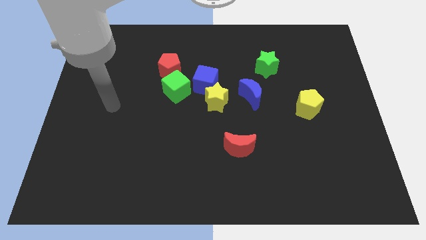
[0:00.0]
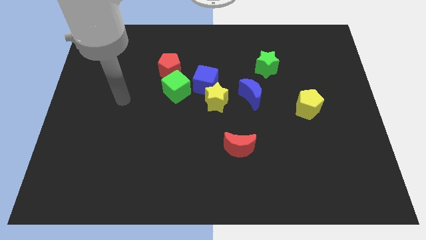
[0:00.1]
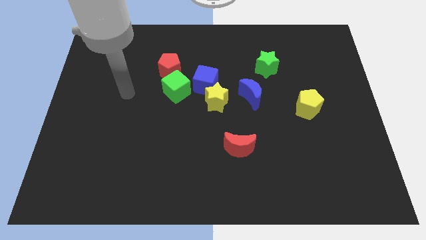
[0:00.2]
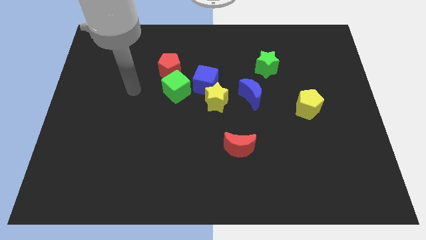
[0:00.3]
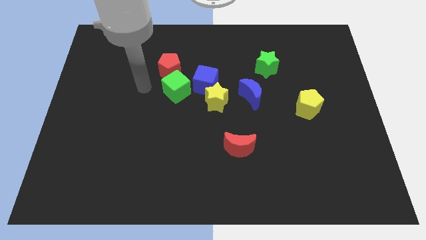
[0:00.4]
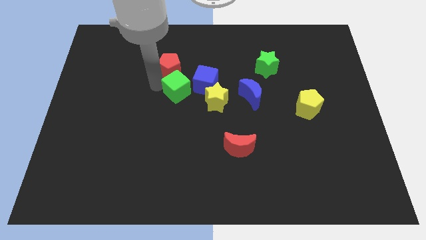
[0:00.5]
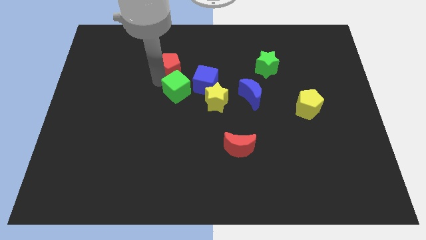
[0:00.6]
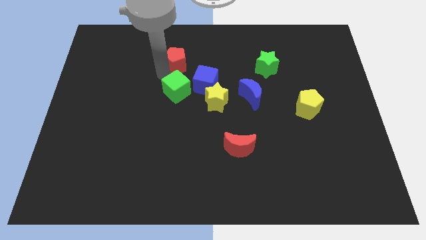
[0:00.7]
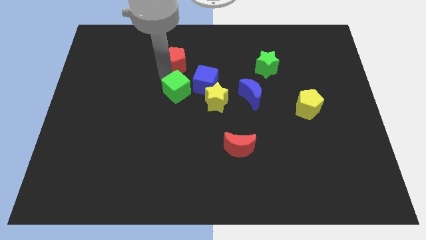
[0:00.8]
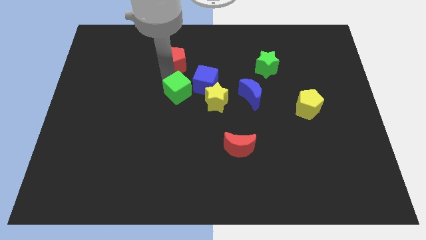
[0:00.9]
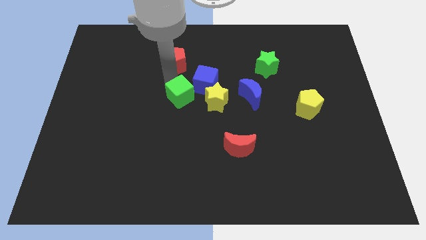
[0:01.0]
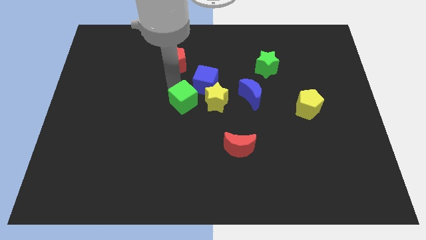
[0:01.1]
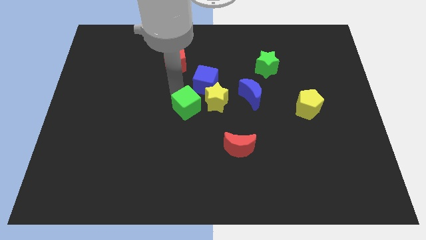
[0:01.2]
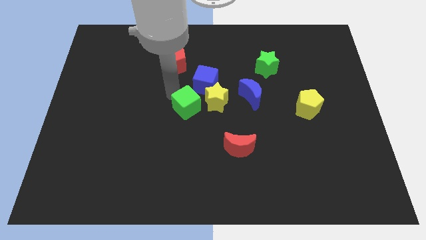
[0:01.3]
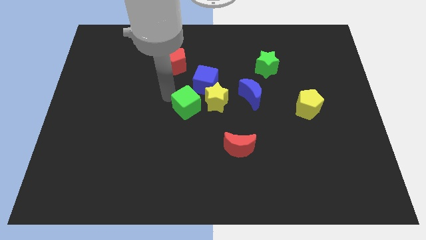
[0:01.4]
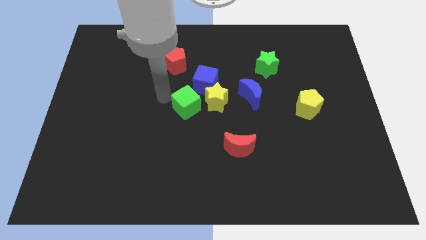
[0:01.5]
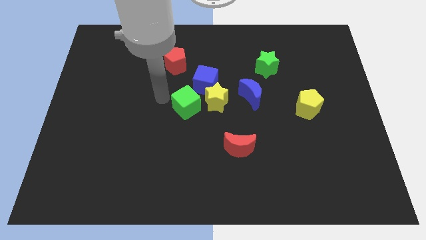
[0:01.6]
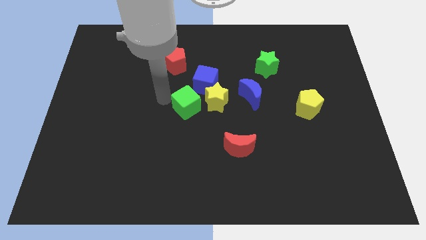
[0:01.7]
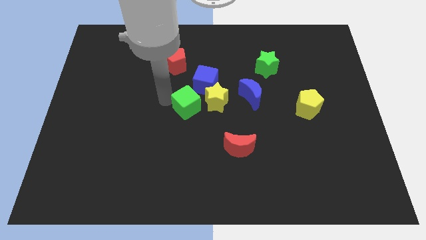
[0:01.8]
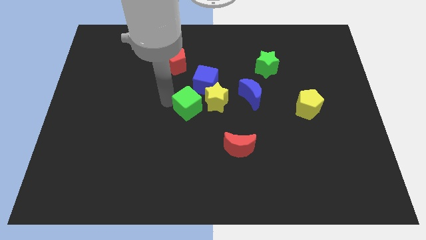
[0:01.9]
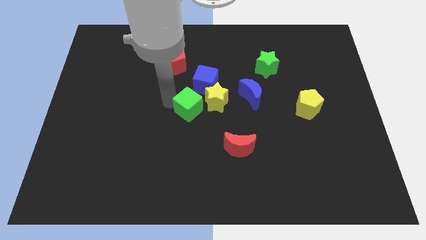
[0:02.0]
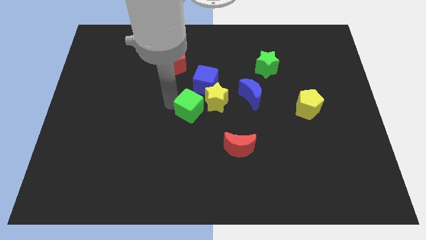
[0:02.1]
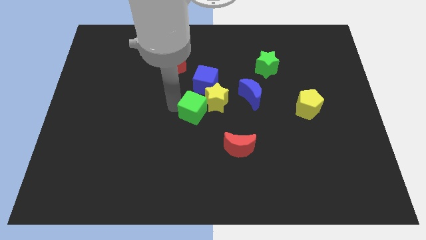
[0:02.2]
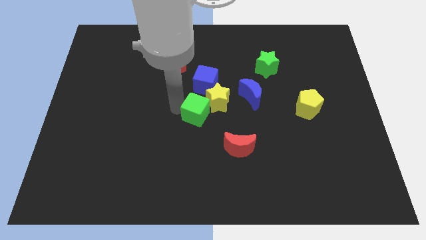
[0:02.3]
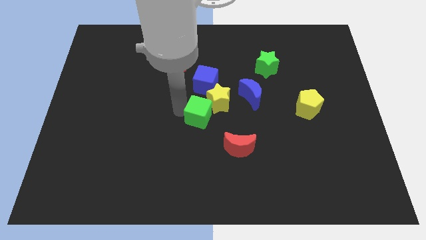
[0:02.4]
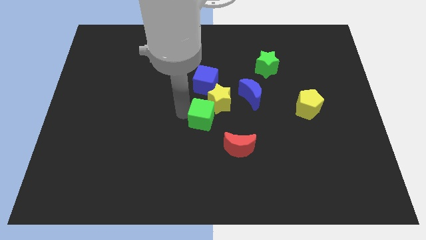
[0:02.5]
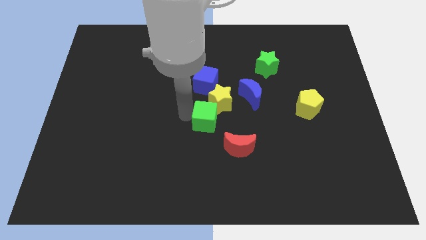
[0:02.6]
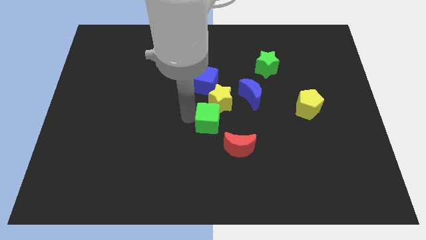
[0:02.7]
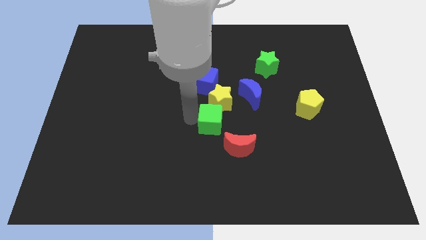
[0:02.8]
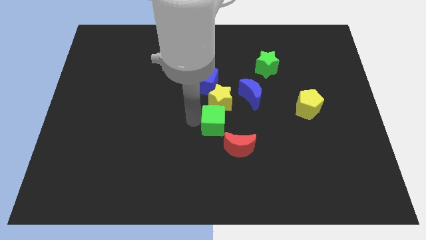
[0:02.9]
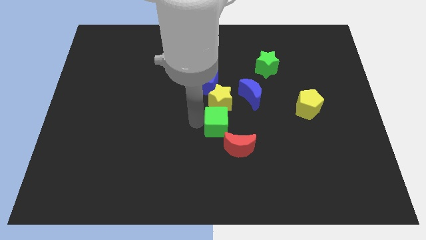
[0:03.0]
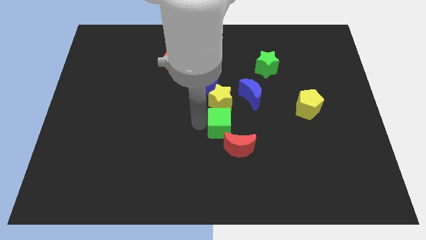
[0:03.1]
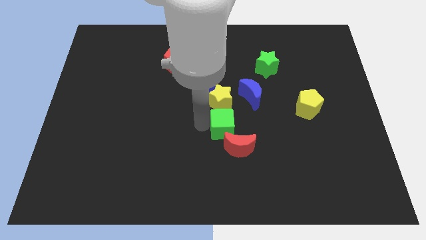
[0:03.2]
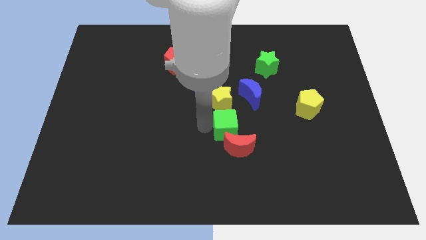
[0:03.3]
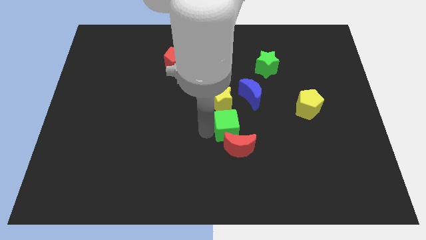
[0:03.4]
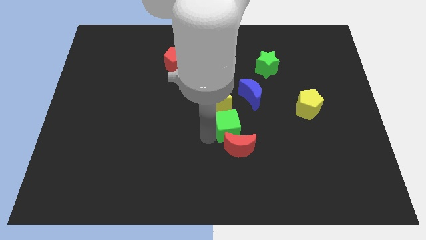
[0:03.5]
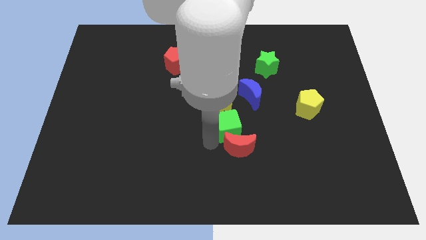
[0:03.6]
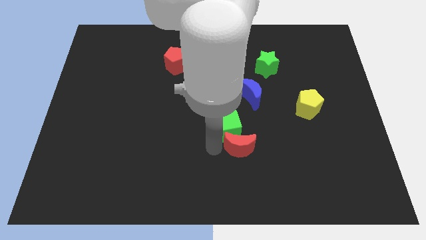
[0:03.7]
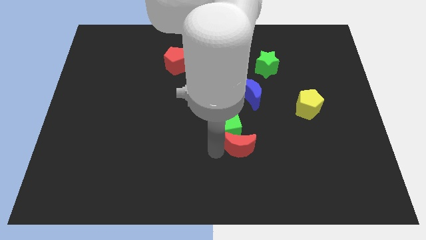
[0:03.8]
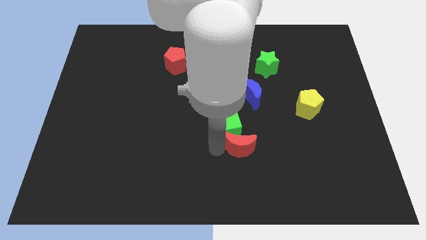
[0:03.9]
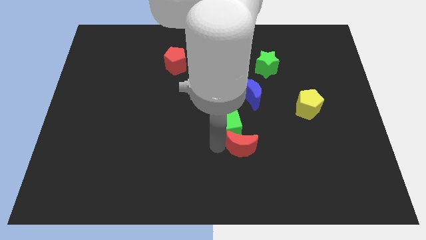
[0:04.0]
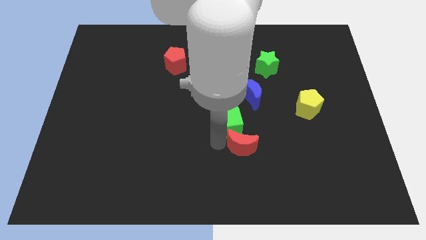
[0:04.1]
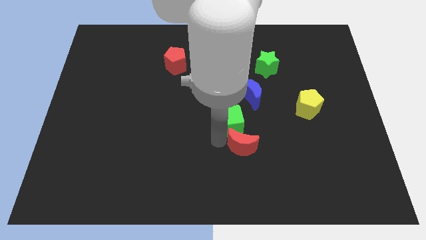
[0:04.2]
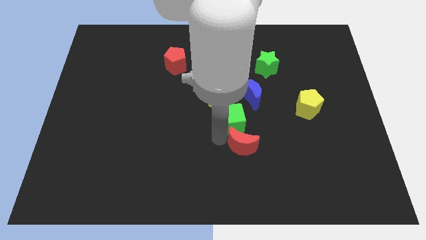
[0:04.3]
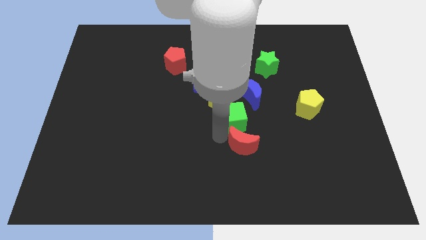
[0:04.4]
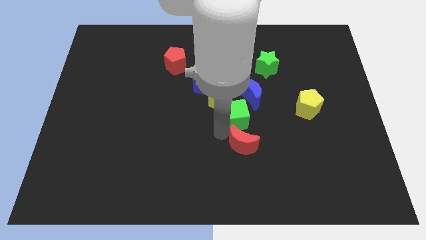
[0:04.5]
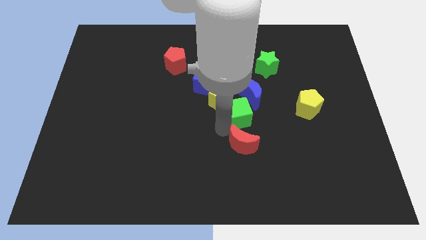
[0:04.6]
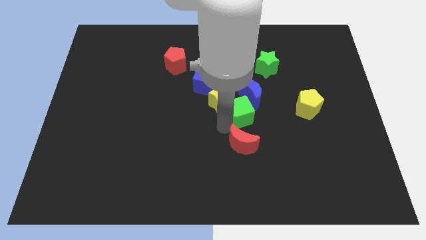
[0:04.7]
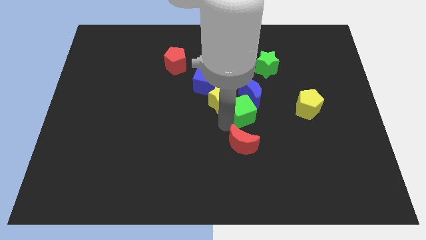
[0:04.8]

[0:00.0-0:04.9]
move the green cube close to the blue moon

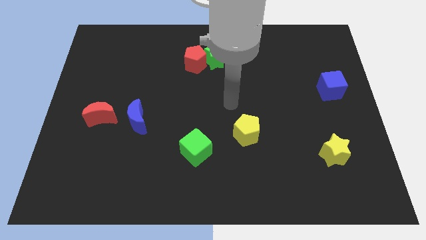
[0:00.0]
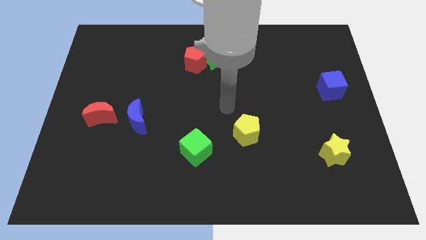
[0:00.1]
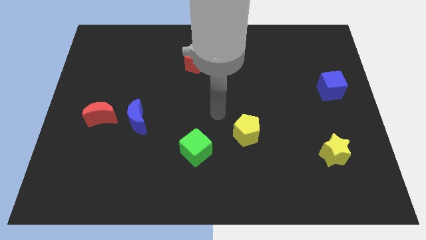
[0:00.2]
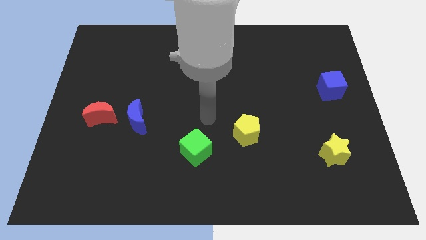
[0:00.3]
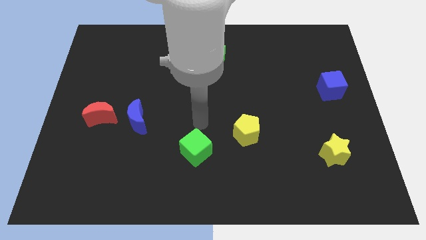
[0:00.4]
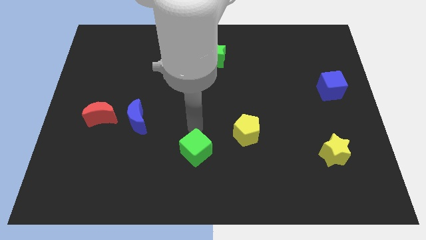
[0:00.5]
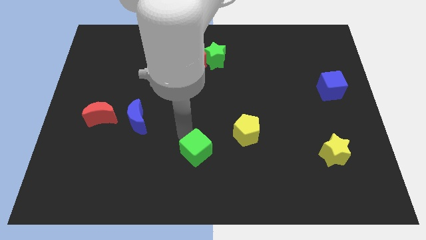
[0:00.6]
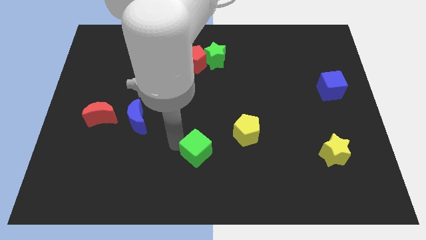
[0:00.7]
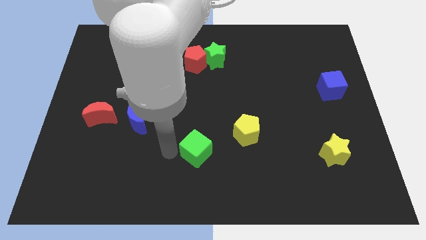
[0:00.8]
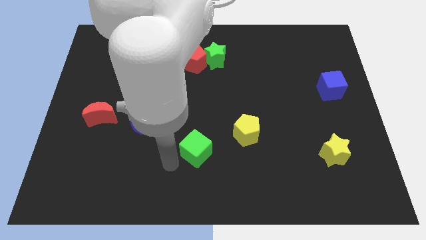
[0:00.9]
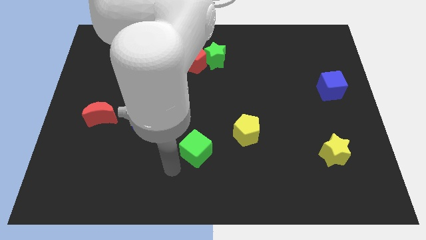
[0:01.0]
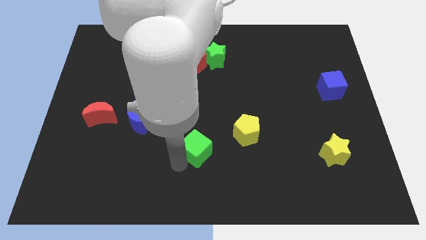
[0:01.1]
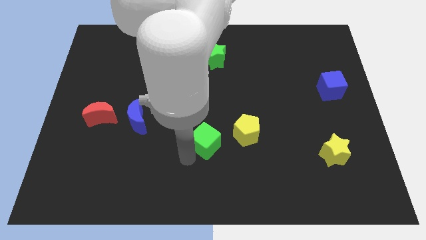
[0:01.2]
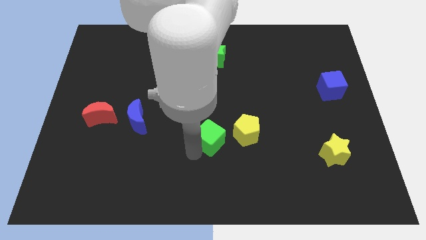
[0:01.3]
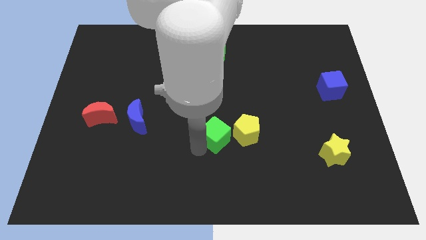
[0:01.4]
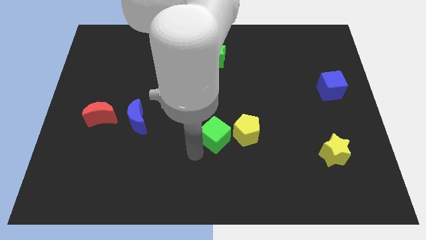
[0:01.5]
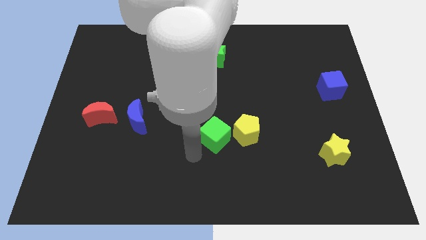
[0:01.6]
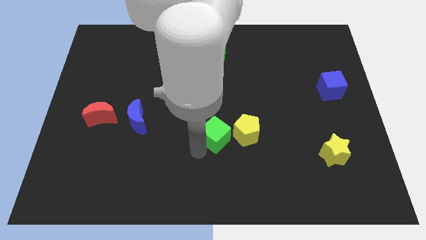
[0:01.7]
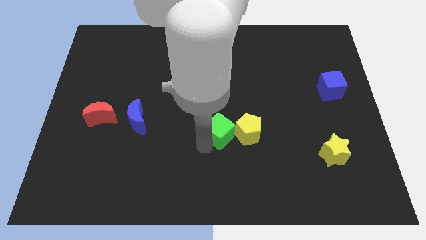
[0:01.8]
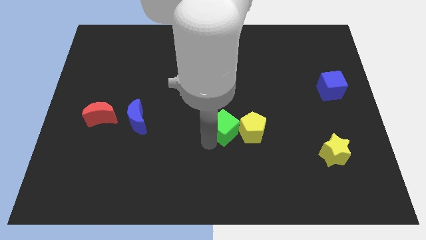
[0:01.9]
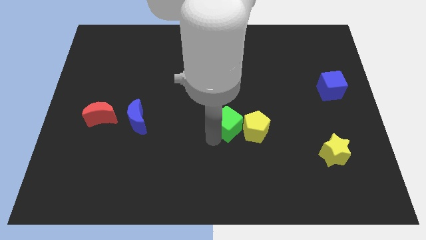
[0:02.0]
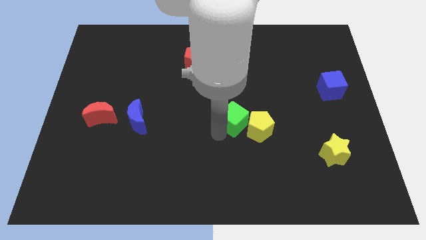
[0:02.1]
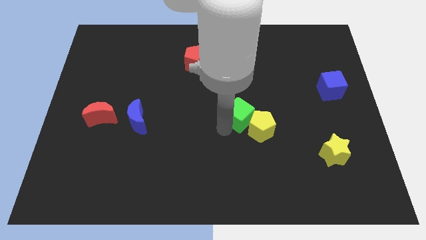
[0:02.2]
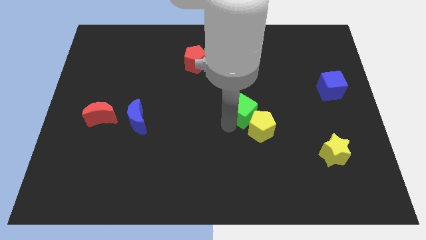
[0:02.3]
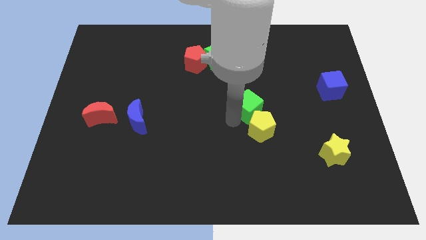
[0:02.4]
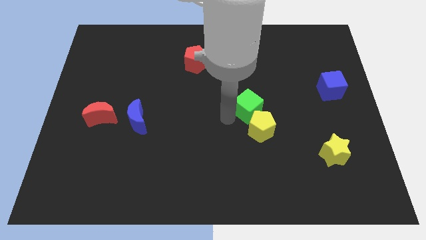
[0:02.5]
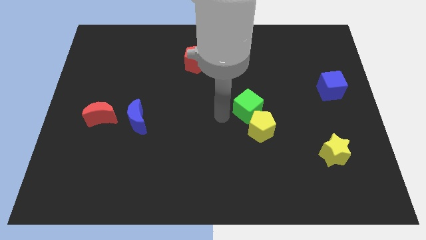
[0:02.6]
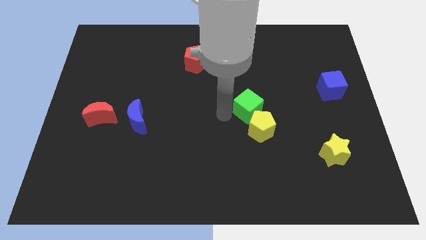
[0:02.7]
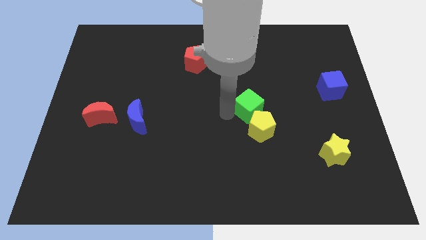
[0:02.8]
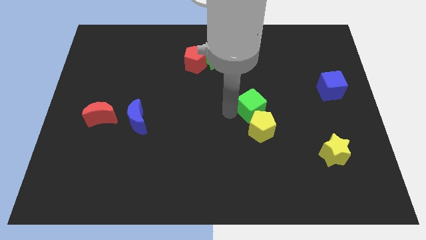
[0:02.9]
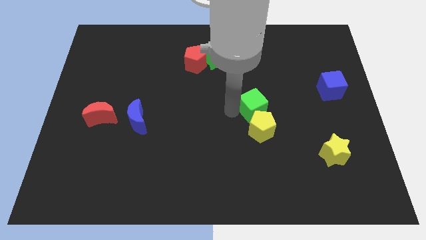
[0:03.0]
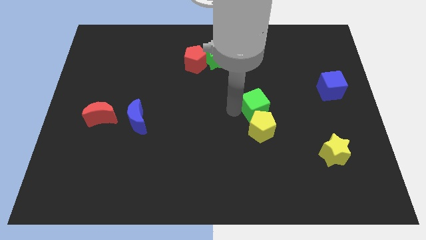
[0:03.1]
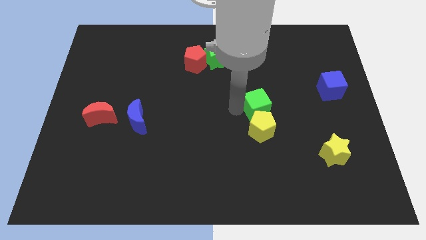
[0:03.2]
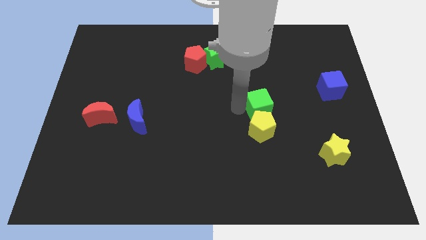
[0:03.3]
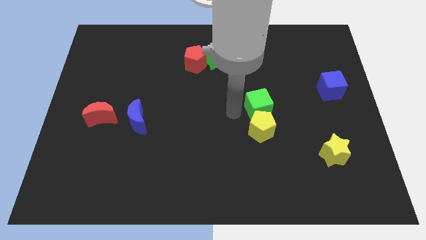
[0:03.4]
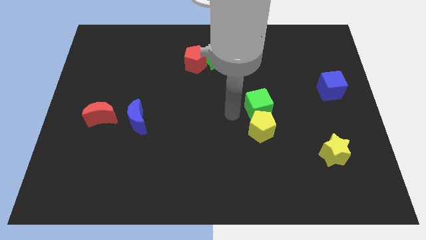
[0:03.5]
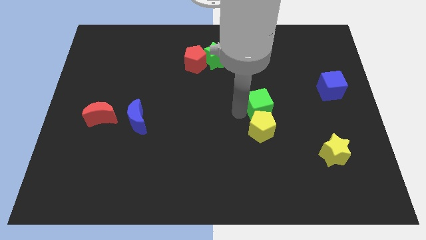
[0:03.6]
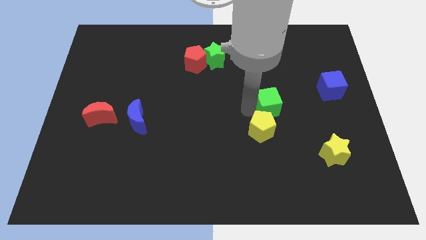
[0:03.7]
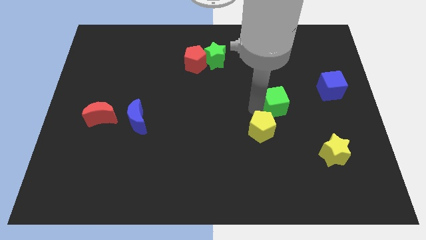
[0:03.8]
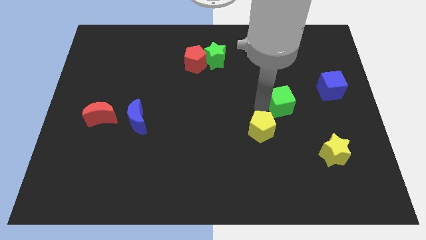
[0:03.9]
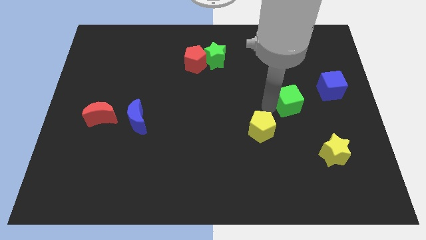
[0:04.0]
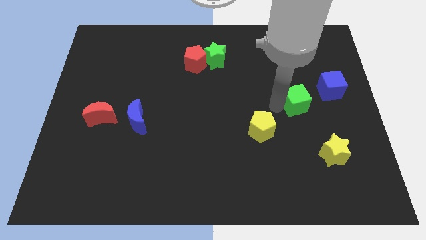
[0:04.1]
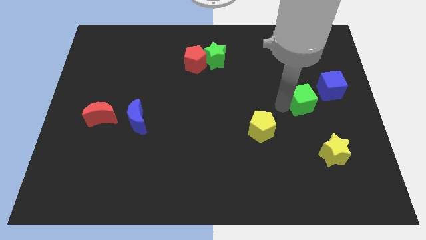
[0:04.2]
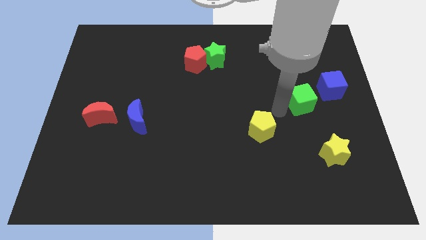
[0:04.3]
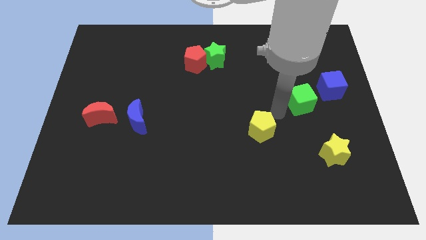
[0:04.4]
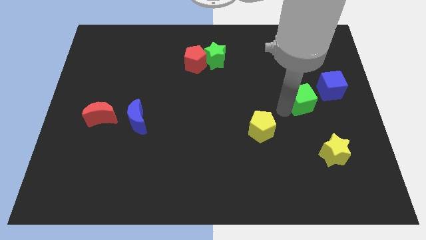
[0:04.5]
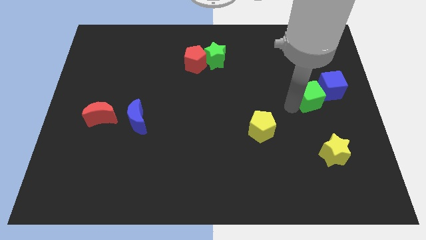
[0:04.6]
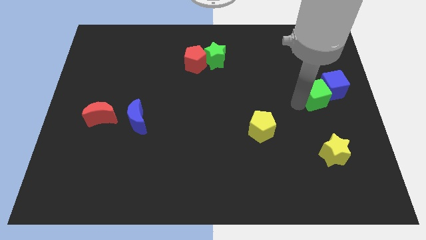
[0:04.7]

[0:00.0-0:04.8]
slide the green cube close to the blue cube
